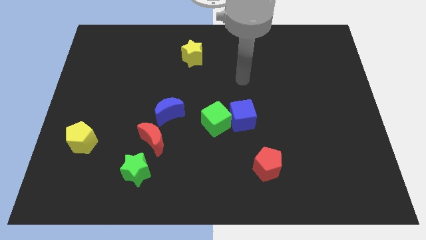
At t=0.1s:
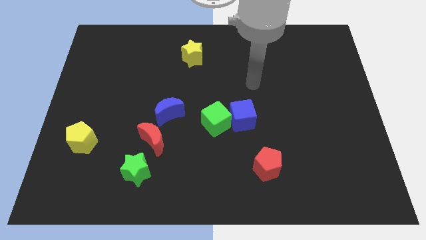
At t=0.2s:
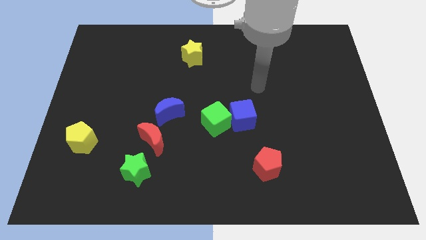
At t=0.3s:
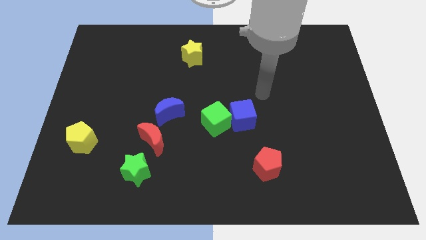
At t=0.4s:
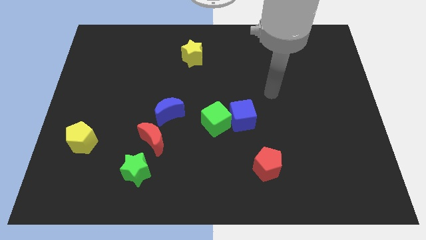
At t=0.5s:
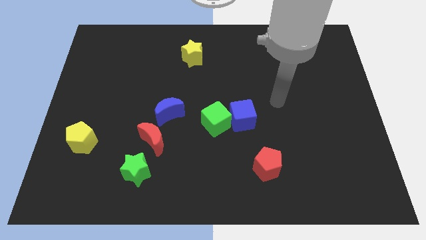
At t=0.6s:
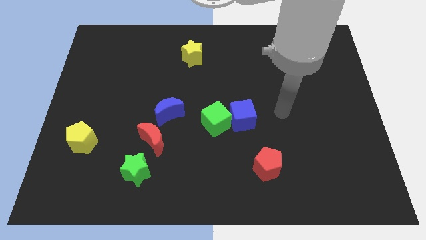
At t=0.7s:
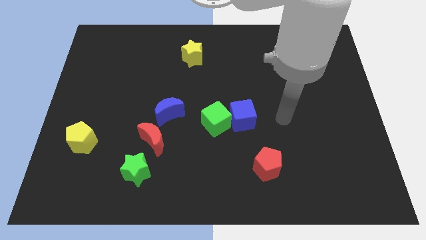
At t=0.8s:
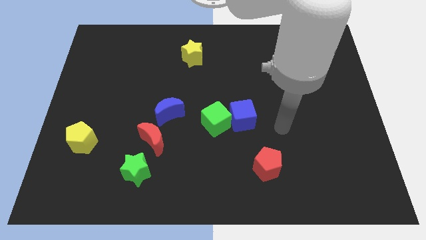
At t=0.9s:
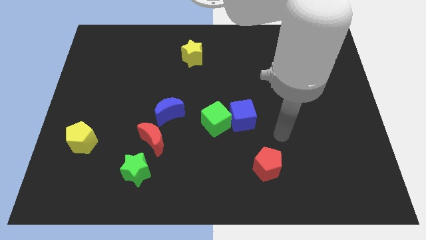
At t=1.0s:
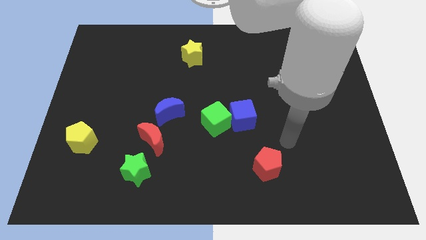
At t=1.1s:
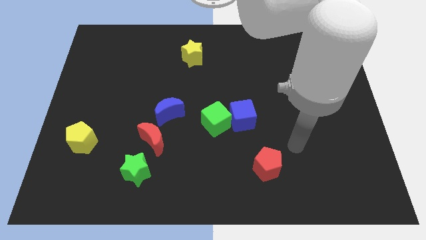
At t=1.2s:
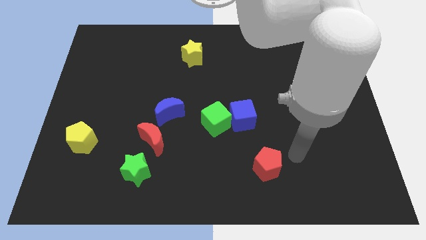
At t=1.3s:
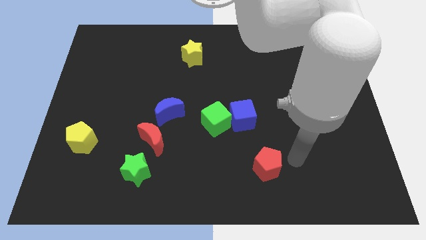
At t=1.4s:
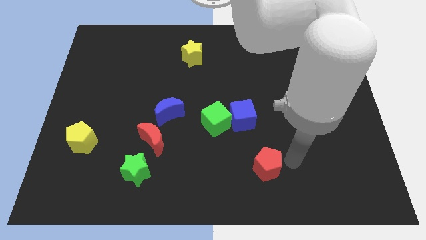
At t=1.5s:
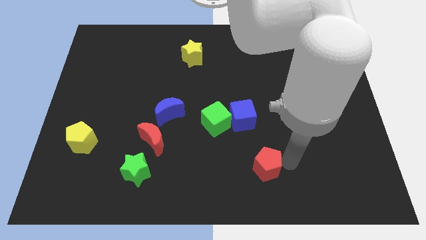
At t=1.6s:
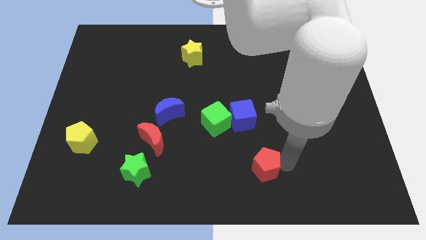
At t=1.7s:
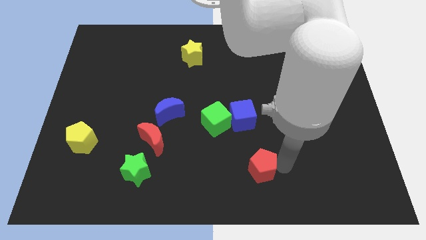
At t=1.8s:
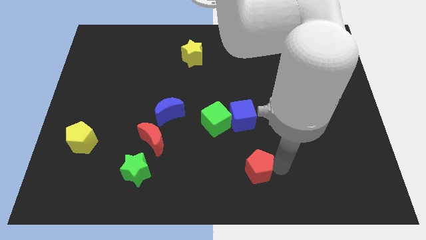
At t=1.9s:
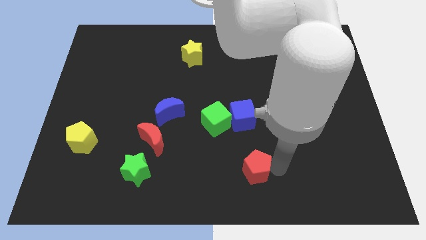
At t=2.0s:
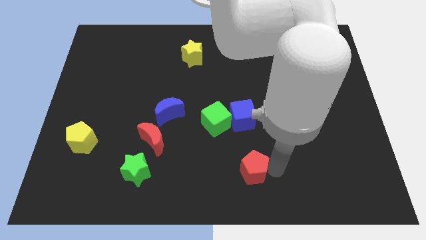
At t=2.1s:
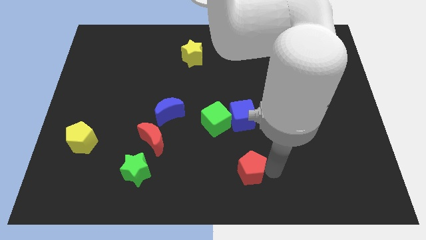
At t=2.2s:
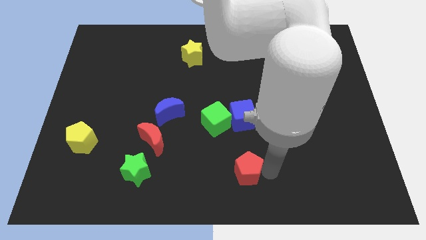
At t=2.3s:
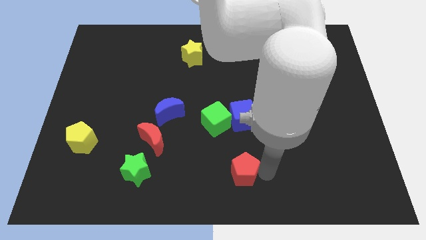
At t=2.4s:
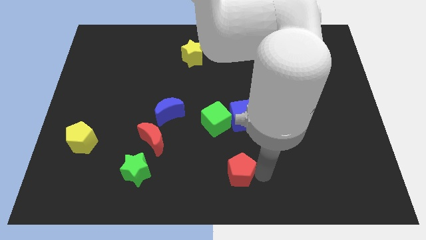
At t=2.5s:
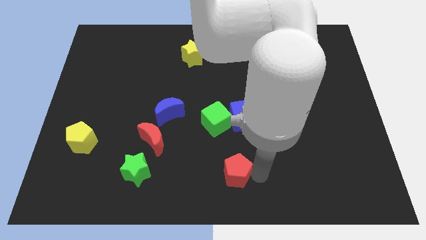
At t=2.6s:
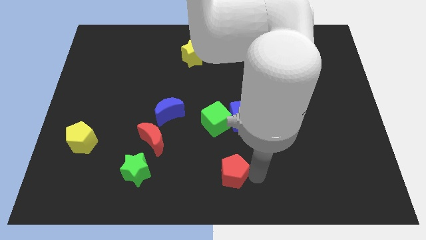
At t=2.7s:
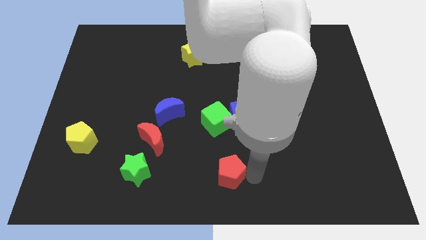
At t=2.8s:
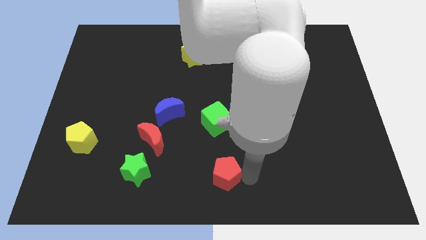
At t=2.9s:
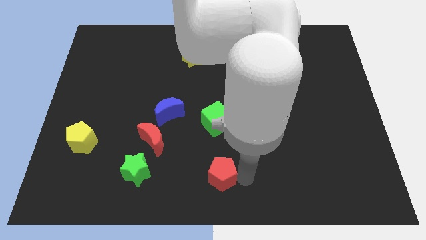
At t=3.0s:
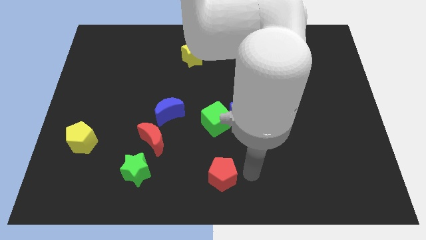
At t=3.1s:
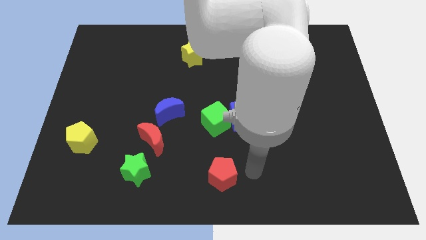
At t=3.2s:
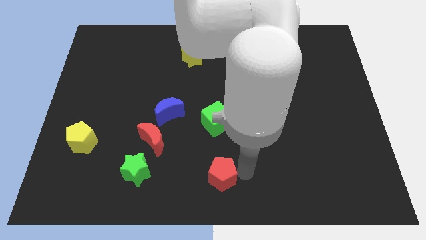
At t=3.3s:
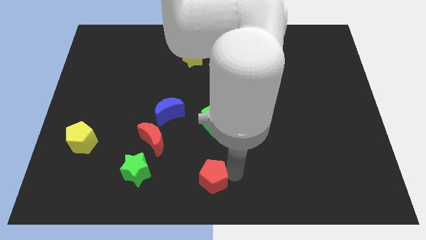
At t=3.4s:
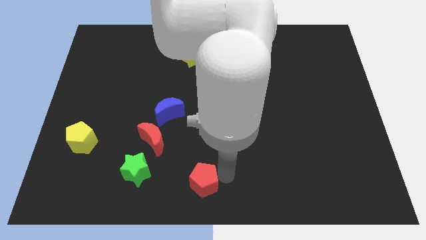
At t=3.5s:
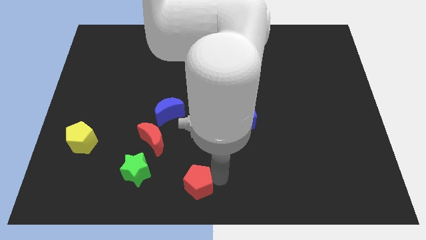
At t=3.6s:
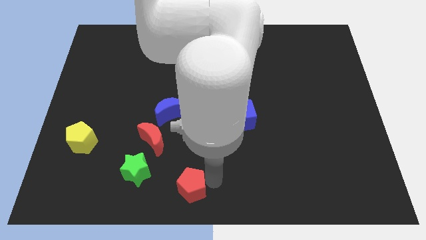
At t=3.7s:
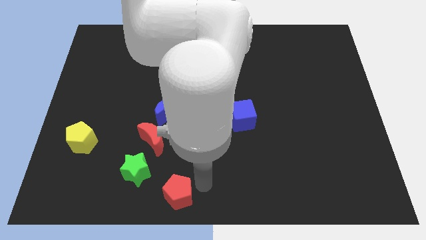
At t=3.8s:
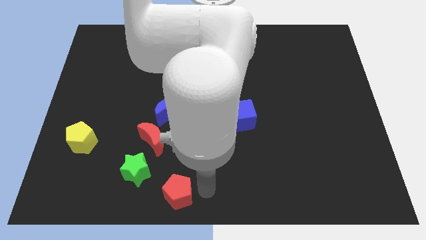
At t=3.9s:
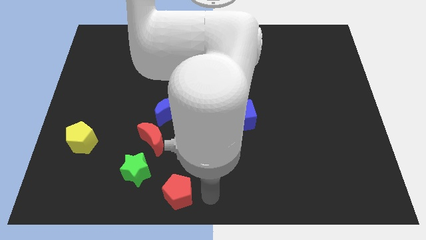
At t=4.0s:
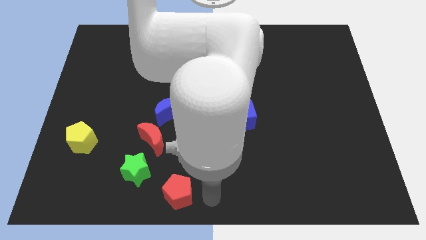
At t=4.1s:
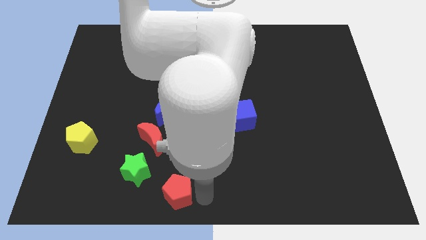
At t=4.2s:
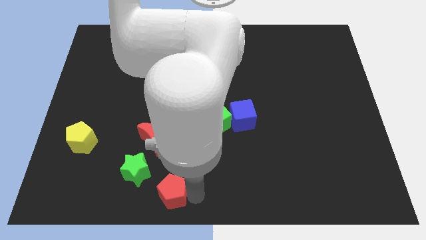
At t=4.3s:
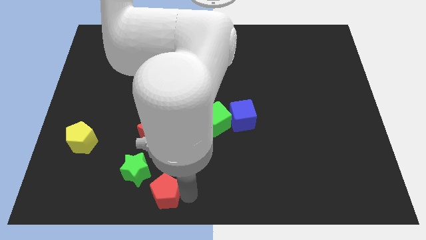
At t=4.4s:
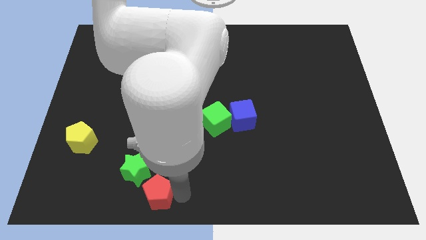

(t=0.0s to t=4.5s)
move the red pentagon to the left

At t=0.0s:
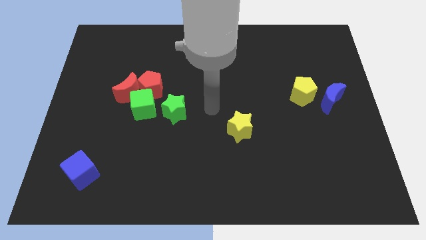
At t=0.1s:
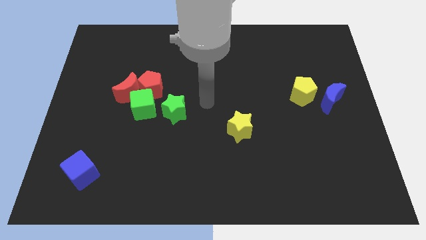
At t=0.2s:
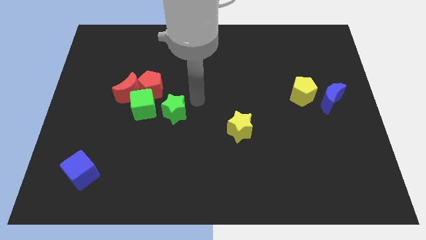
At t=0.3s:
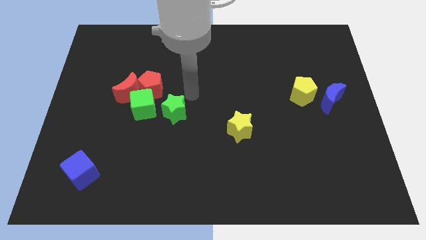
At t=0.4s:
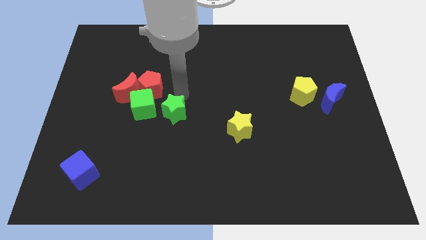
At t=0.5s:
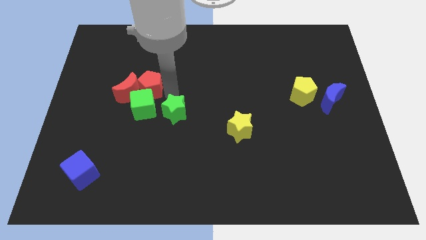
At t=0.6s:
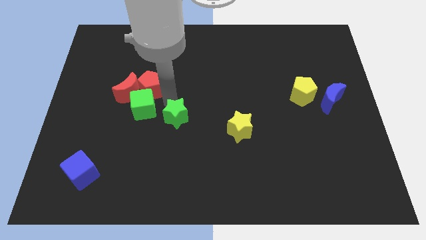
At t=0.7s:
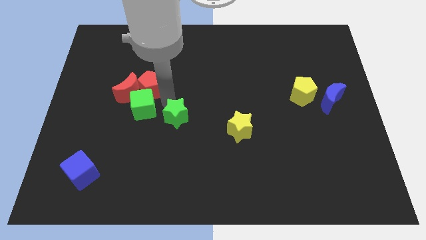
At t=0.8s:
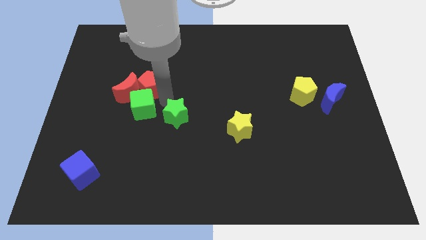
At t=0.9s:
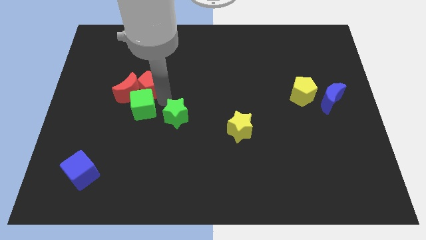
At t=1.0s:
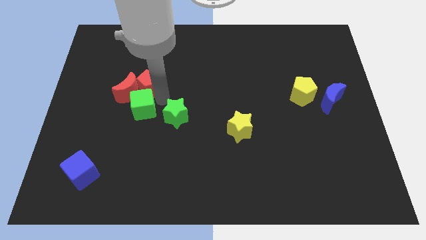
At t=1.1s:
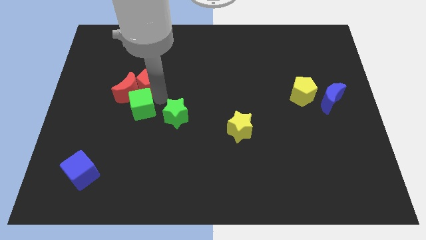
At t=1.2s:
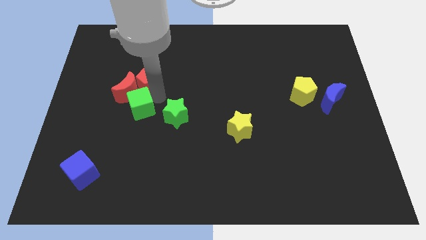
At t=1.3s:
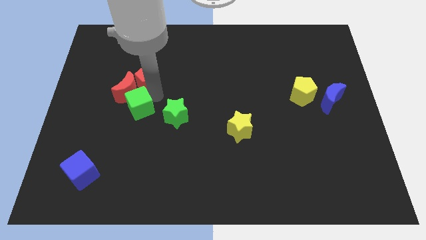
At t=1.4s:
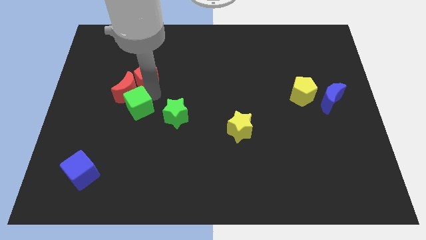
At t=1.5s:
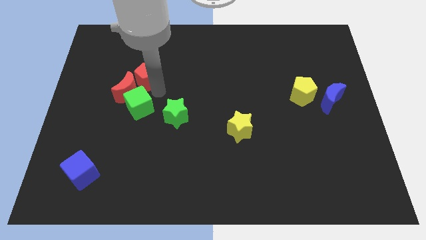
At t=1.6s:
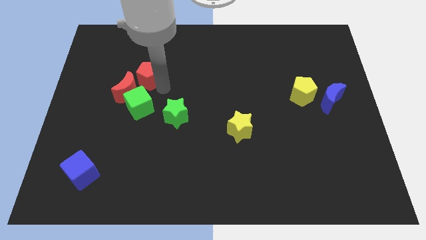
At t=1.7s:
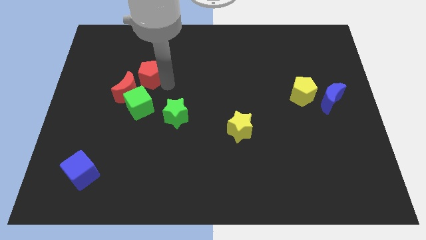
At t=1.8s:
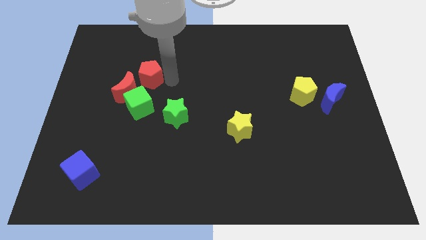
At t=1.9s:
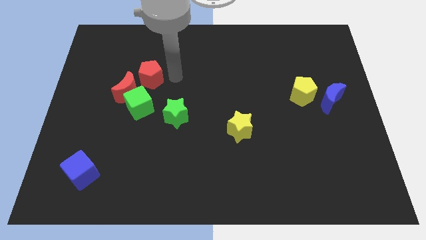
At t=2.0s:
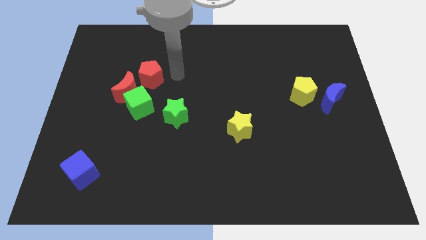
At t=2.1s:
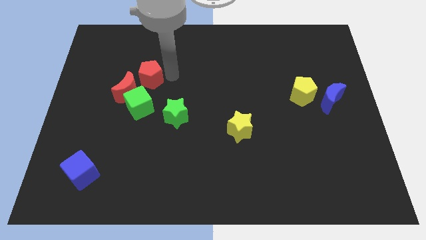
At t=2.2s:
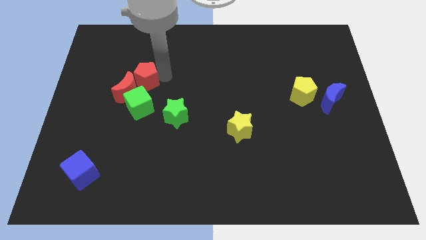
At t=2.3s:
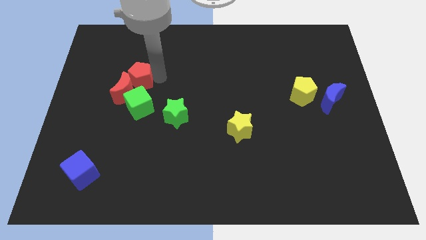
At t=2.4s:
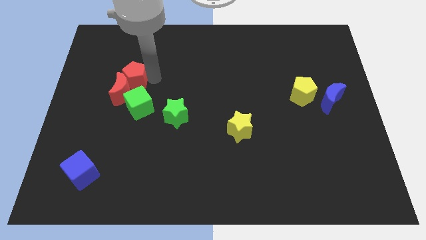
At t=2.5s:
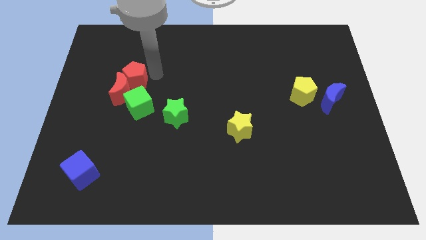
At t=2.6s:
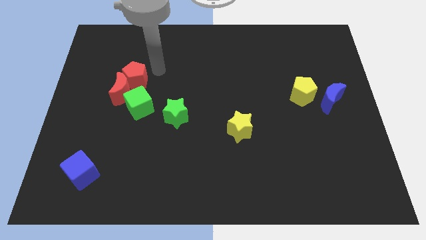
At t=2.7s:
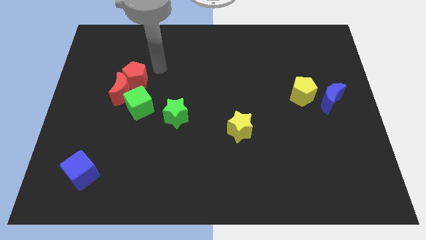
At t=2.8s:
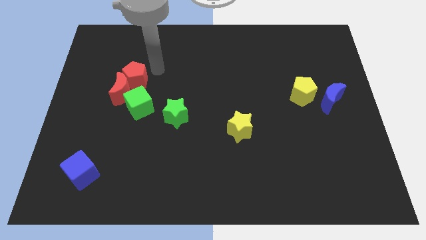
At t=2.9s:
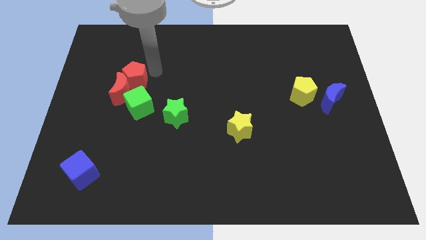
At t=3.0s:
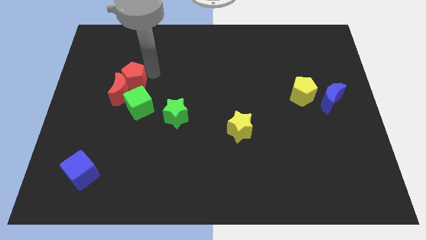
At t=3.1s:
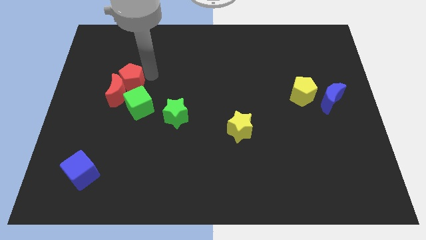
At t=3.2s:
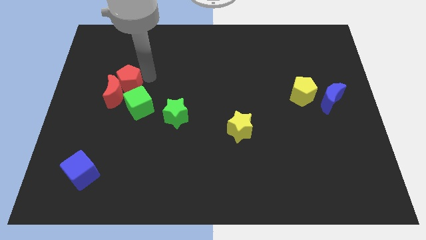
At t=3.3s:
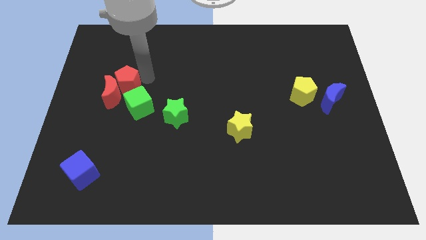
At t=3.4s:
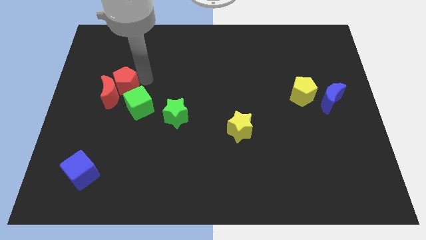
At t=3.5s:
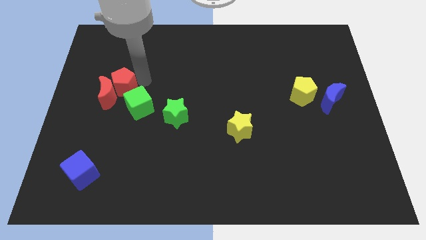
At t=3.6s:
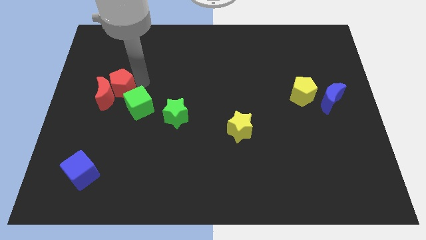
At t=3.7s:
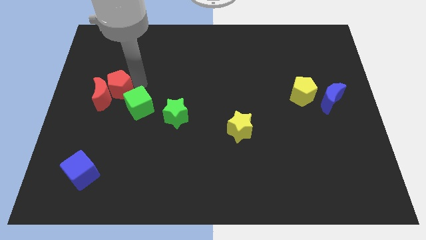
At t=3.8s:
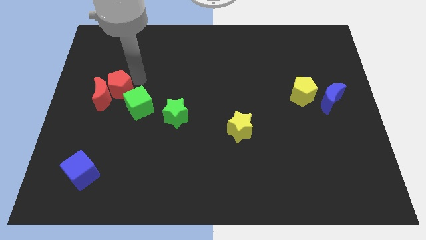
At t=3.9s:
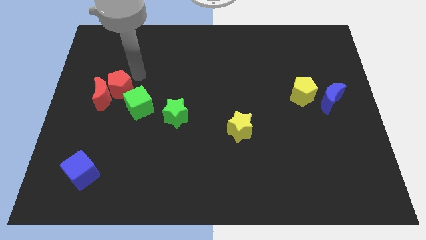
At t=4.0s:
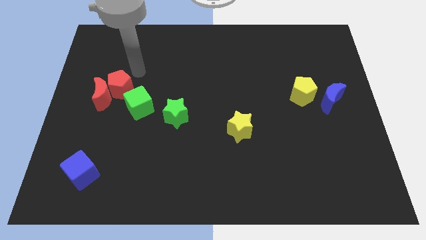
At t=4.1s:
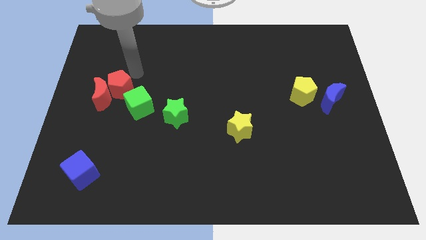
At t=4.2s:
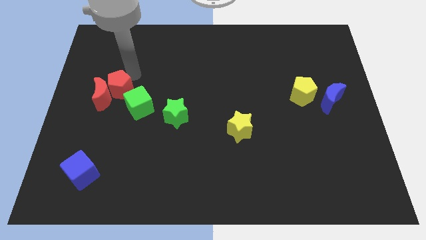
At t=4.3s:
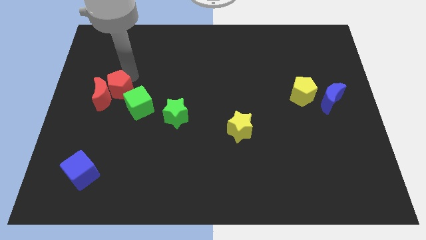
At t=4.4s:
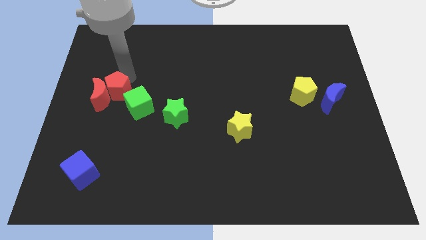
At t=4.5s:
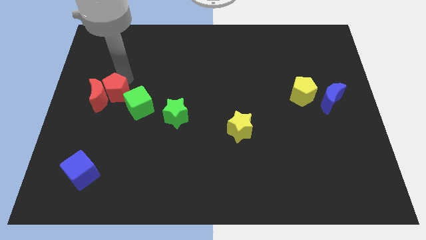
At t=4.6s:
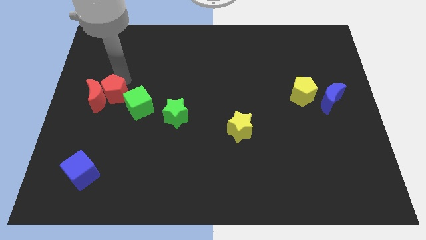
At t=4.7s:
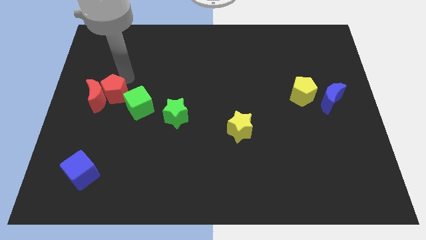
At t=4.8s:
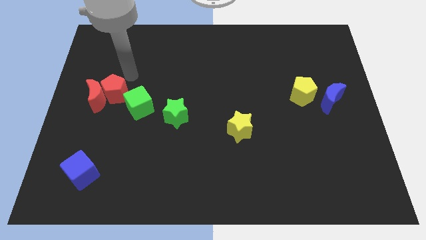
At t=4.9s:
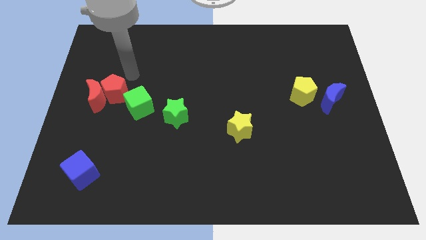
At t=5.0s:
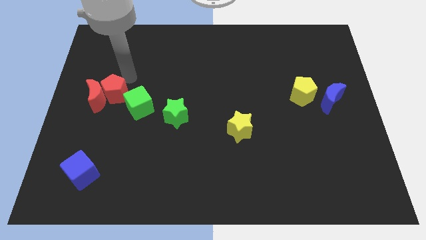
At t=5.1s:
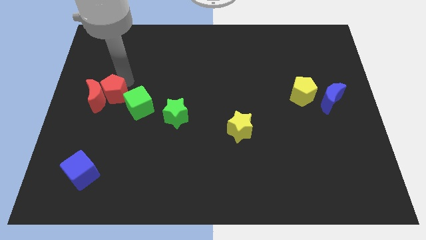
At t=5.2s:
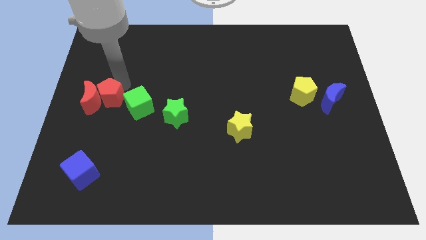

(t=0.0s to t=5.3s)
push the red pentagon a bit downwards and to the left diagonally
